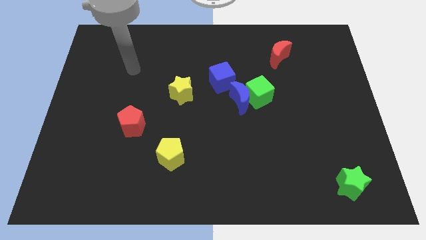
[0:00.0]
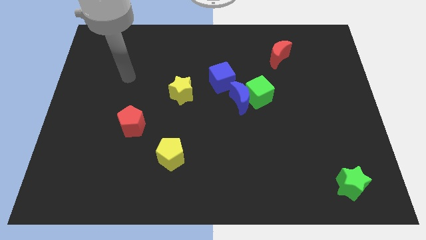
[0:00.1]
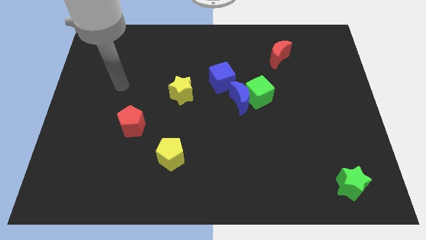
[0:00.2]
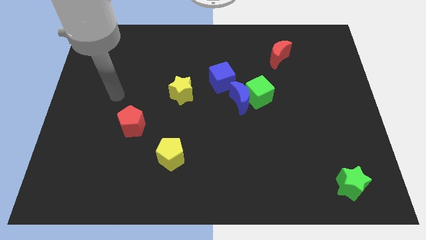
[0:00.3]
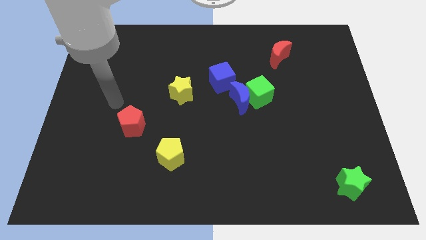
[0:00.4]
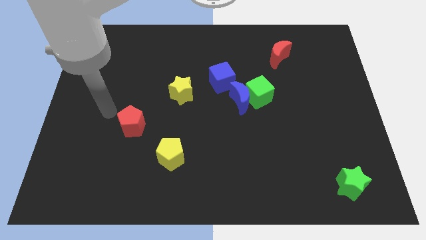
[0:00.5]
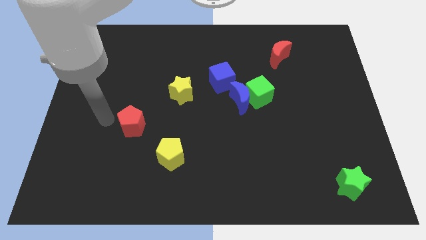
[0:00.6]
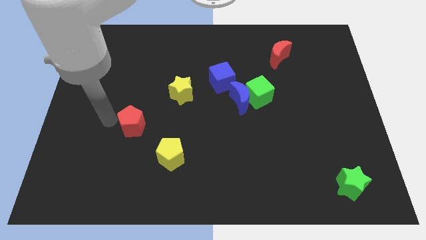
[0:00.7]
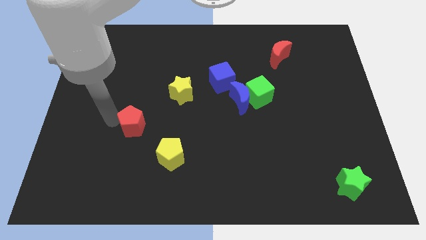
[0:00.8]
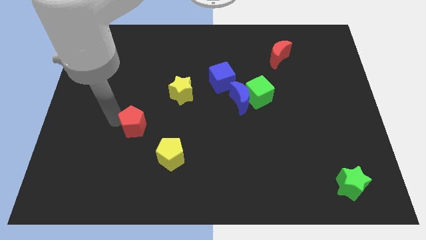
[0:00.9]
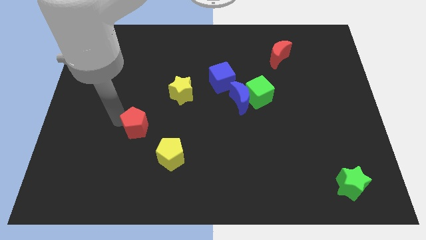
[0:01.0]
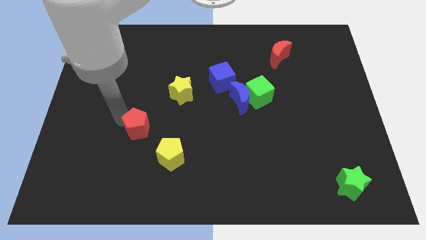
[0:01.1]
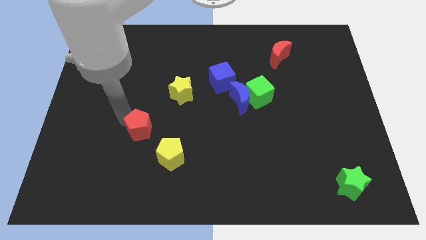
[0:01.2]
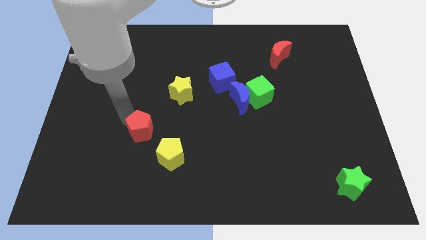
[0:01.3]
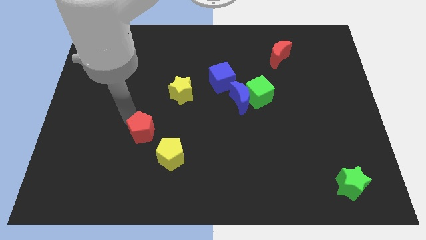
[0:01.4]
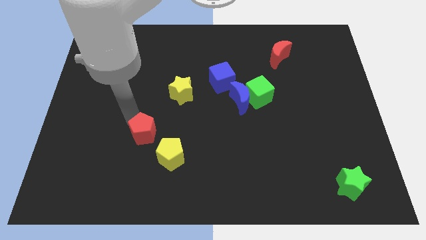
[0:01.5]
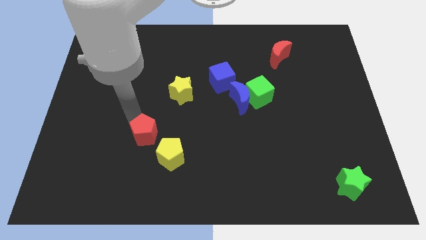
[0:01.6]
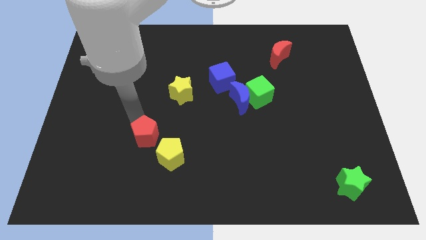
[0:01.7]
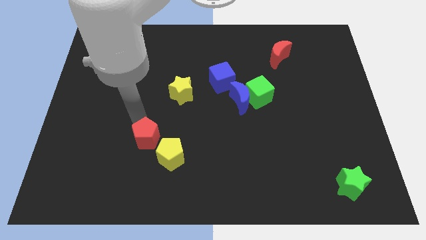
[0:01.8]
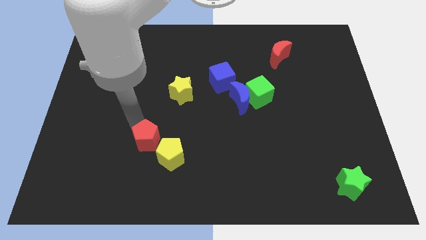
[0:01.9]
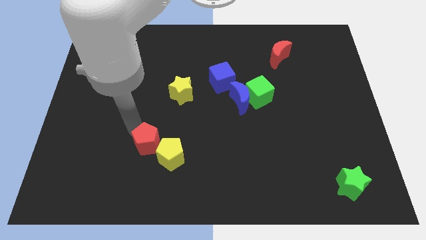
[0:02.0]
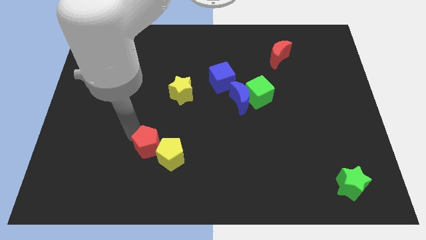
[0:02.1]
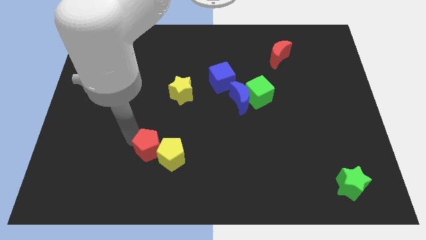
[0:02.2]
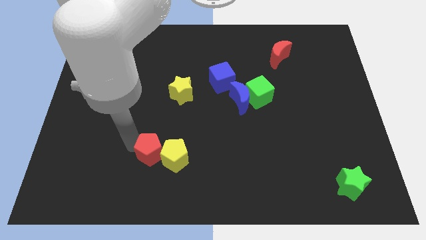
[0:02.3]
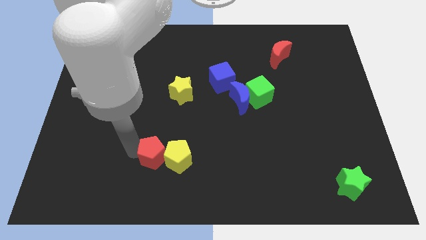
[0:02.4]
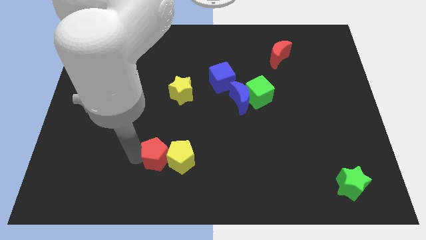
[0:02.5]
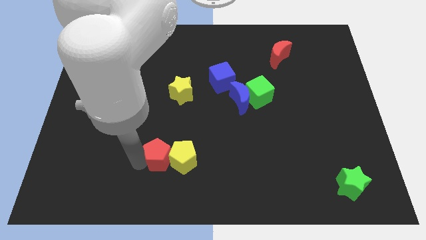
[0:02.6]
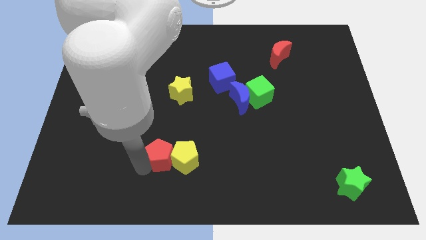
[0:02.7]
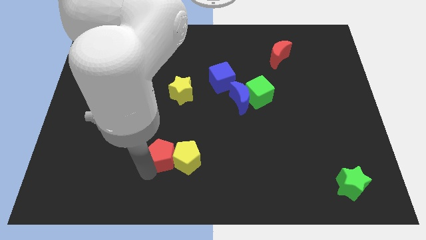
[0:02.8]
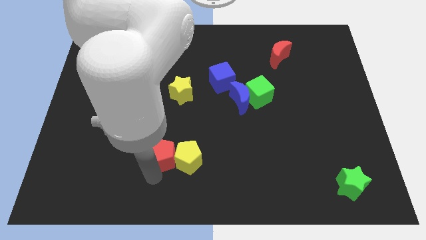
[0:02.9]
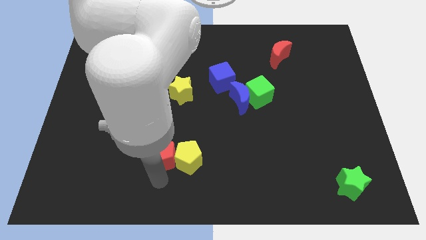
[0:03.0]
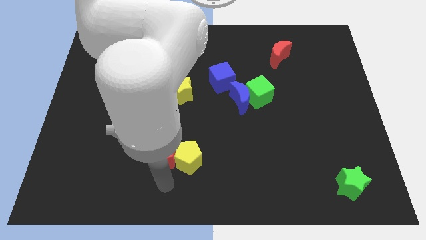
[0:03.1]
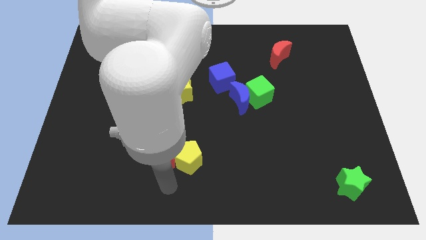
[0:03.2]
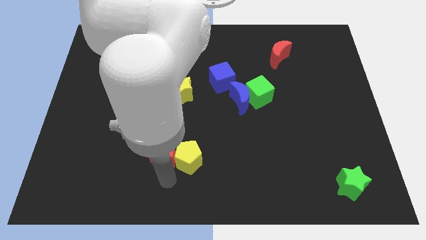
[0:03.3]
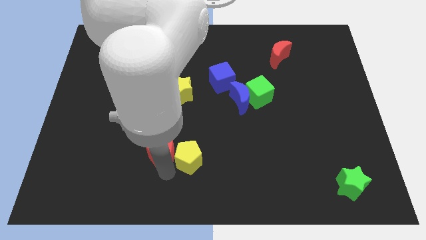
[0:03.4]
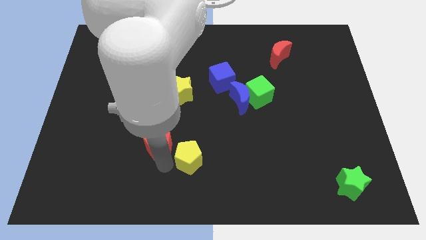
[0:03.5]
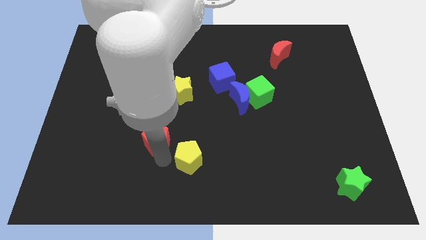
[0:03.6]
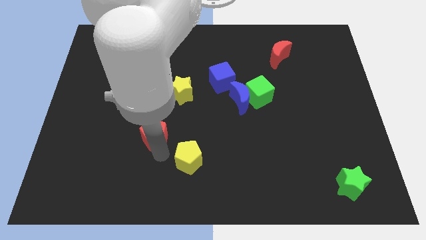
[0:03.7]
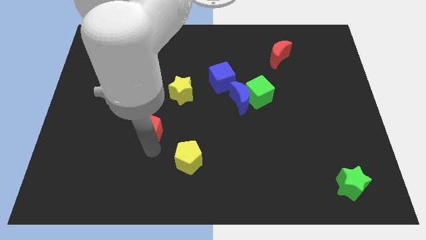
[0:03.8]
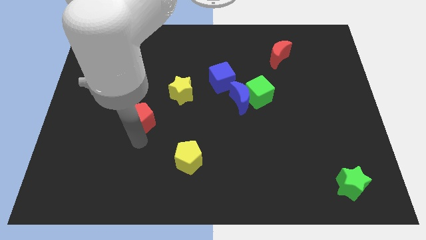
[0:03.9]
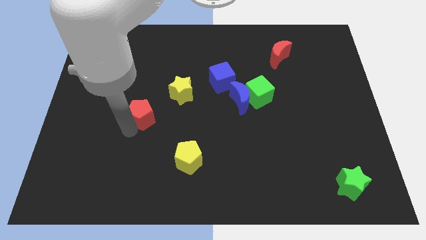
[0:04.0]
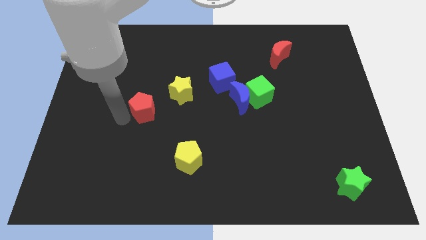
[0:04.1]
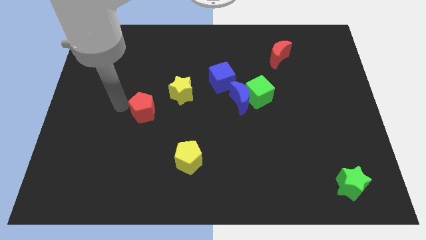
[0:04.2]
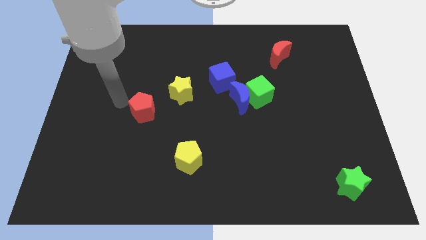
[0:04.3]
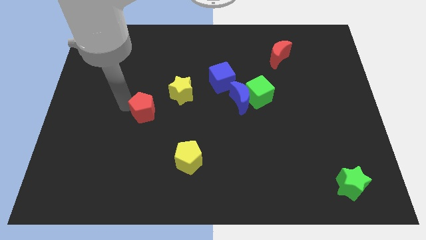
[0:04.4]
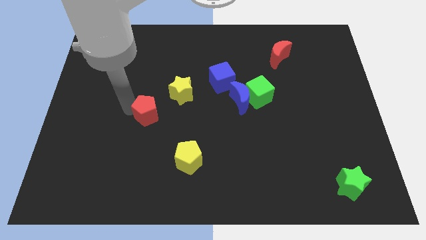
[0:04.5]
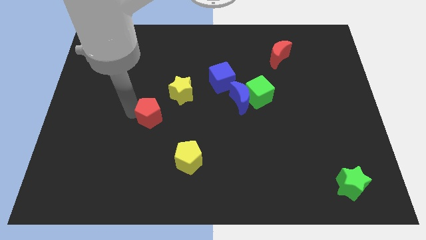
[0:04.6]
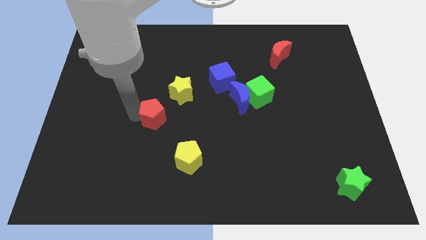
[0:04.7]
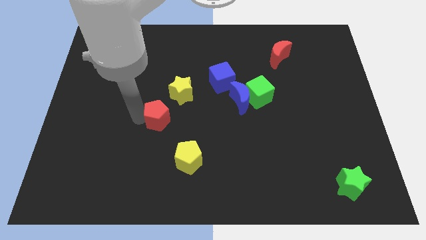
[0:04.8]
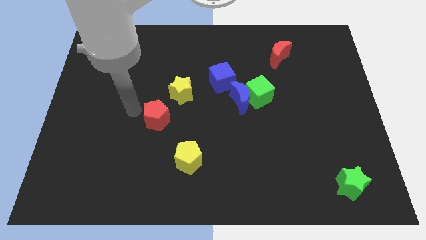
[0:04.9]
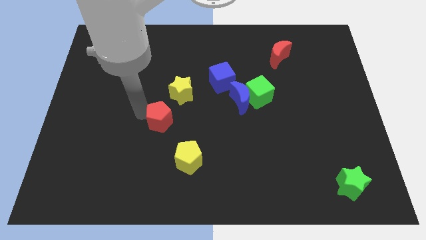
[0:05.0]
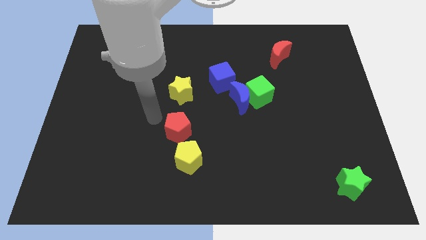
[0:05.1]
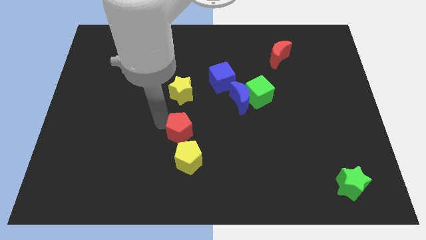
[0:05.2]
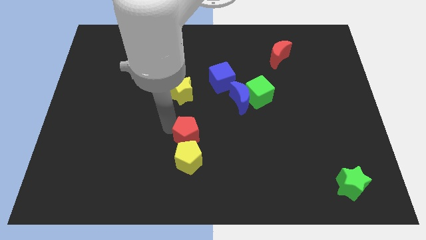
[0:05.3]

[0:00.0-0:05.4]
put the red pentagon diagonally up and to the right of the yellow pentagon

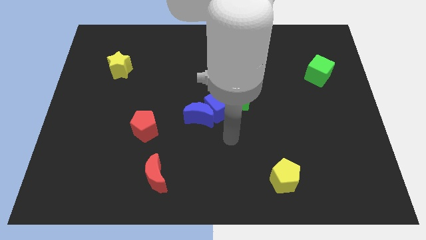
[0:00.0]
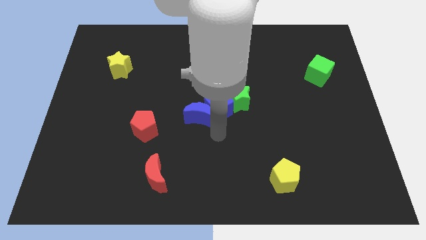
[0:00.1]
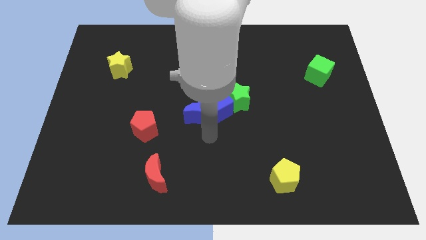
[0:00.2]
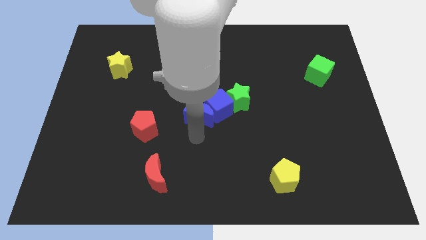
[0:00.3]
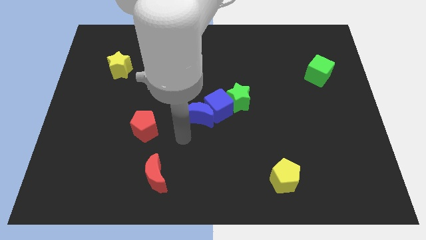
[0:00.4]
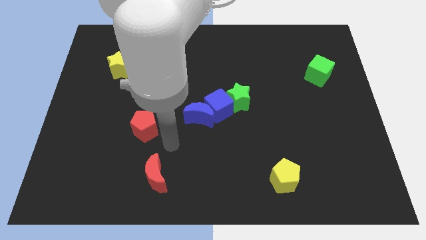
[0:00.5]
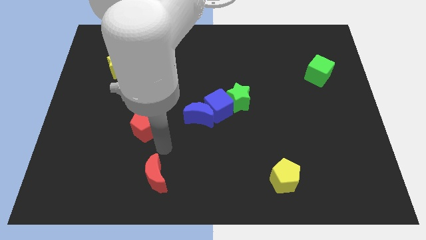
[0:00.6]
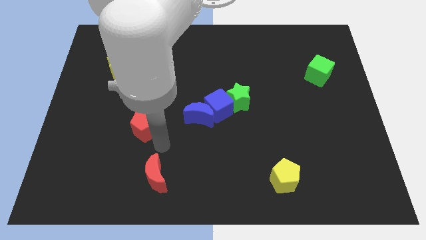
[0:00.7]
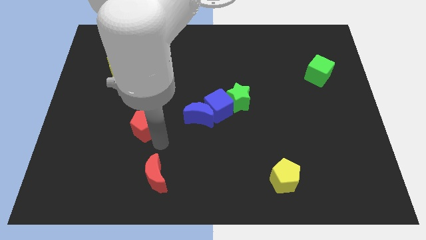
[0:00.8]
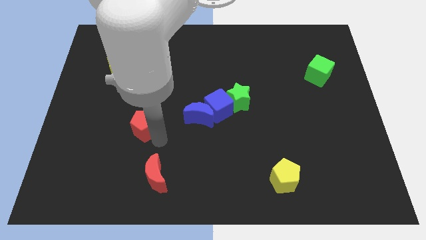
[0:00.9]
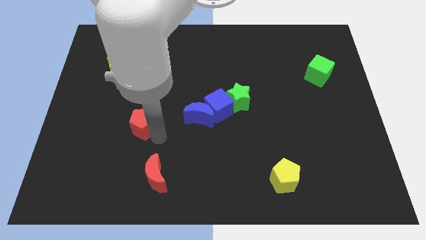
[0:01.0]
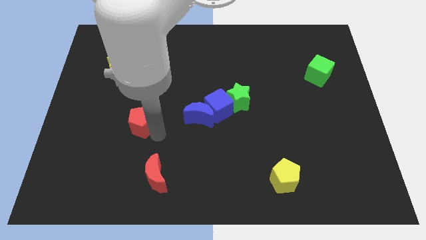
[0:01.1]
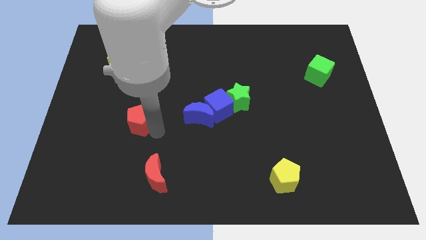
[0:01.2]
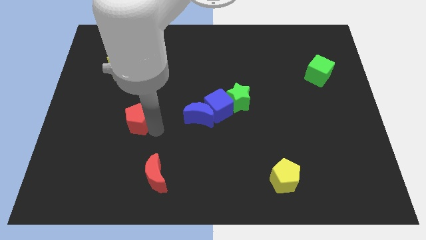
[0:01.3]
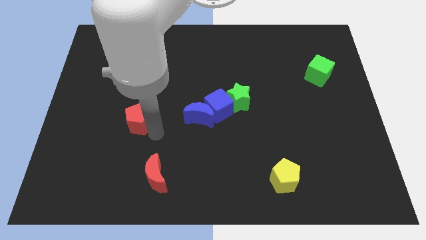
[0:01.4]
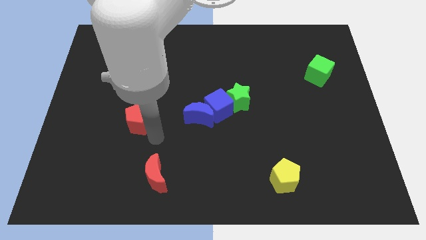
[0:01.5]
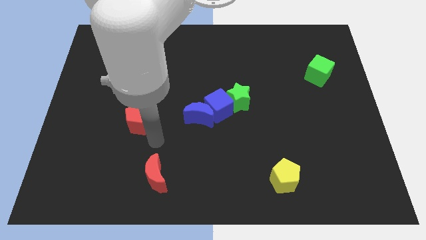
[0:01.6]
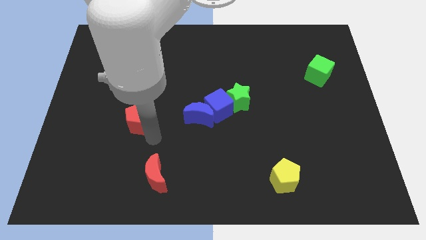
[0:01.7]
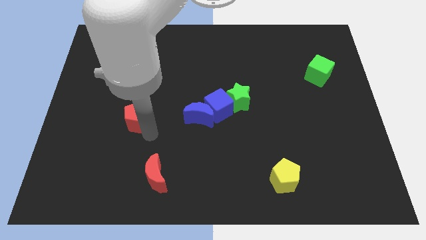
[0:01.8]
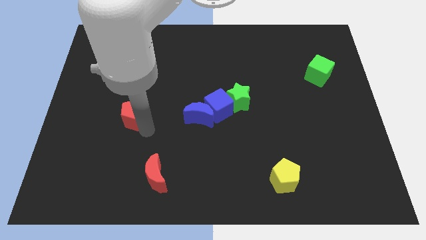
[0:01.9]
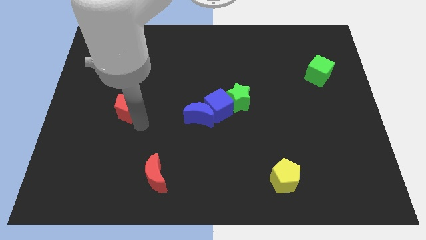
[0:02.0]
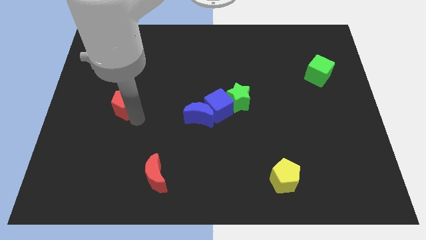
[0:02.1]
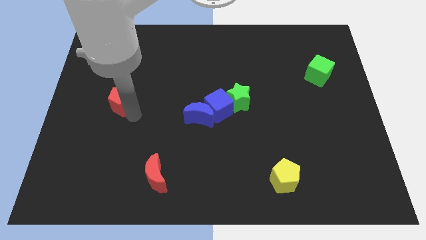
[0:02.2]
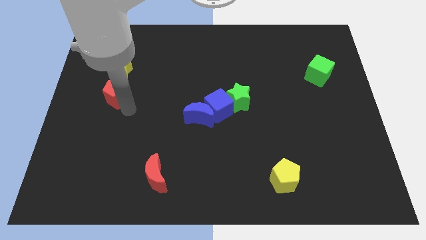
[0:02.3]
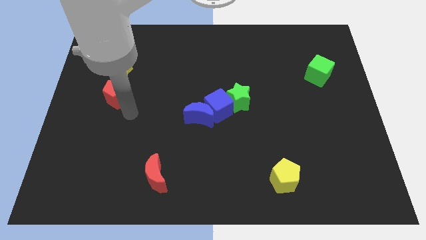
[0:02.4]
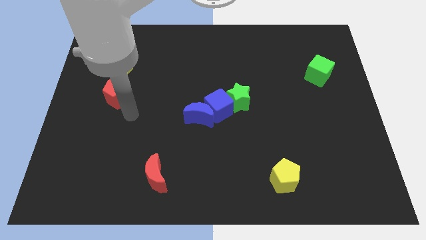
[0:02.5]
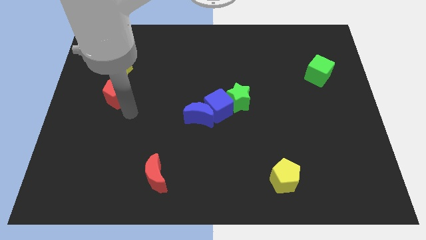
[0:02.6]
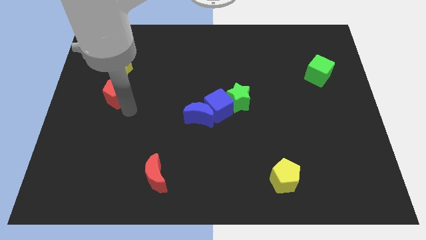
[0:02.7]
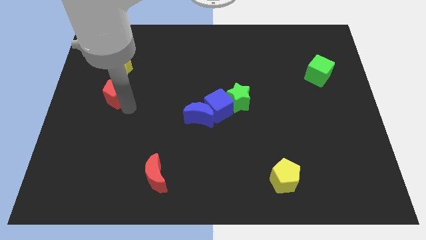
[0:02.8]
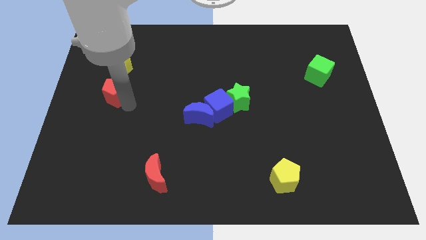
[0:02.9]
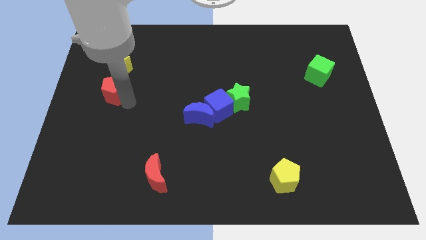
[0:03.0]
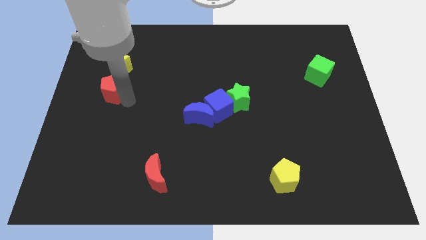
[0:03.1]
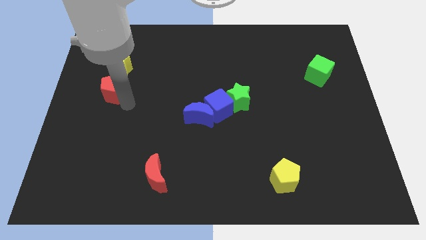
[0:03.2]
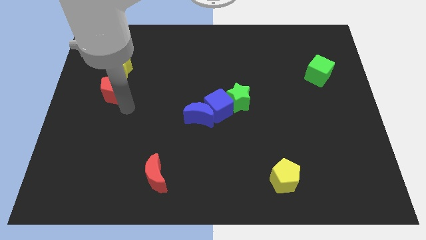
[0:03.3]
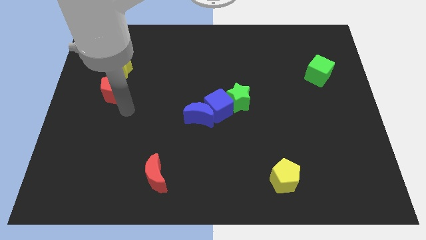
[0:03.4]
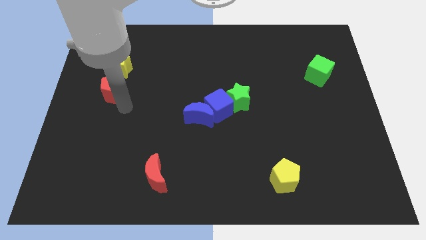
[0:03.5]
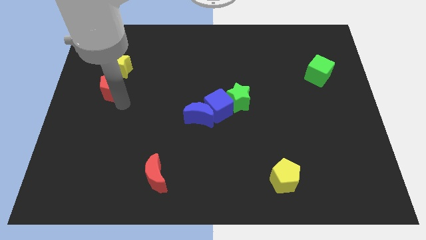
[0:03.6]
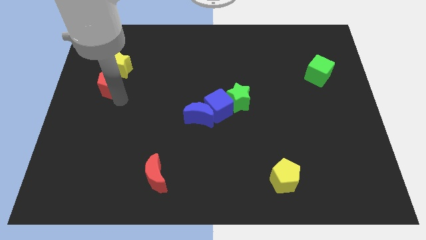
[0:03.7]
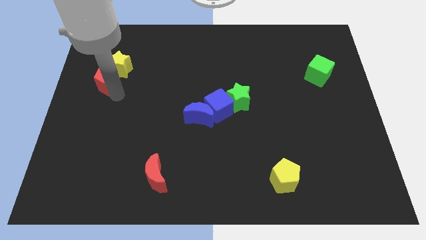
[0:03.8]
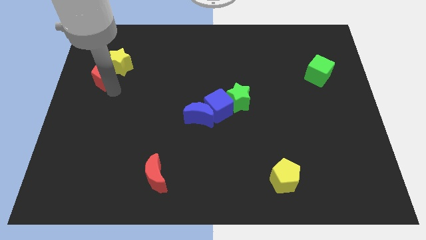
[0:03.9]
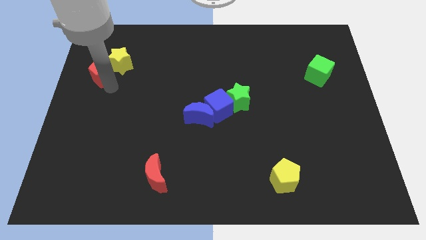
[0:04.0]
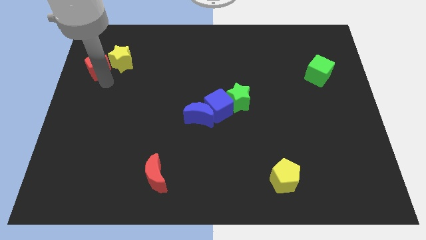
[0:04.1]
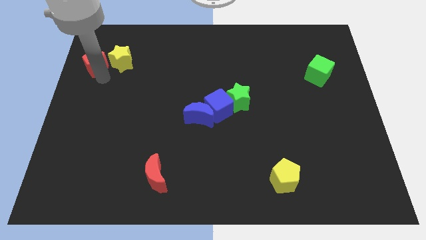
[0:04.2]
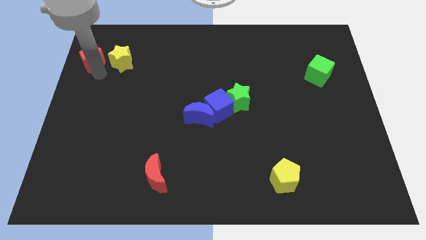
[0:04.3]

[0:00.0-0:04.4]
move the red pentagon diagonally up and to the left of the yellow star
